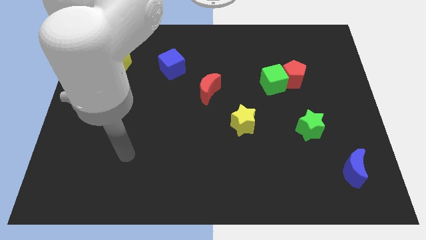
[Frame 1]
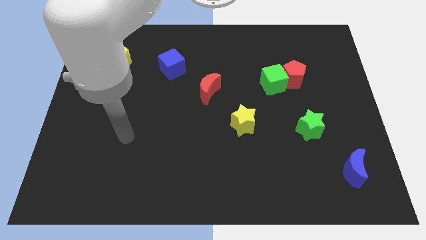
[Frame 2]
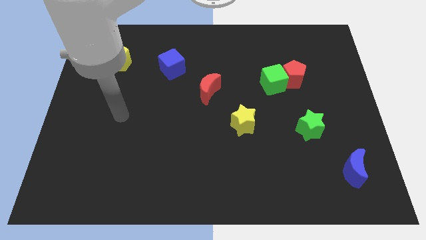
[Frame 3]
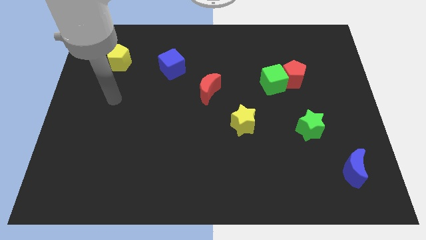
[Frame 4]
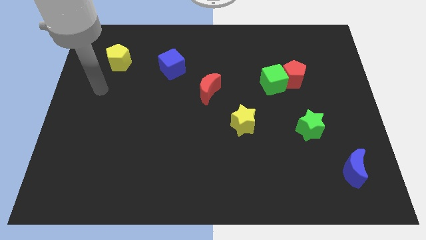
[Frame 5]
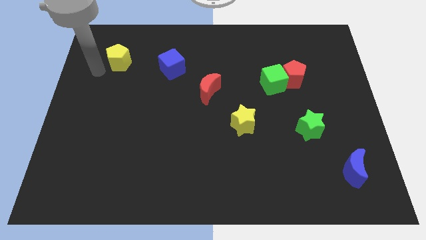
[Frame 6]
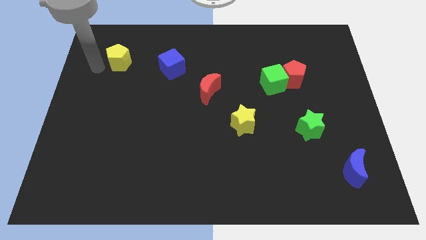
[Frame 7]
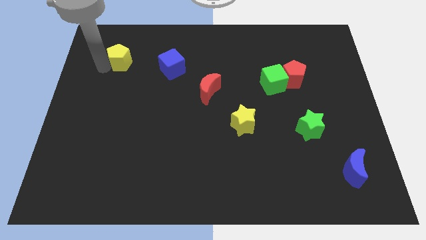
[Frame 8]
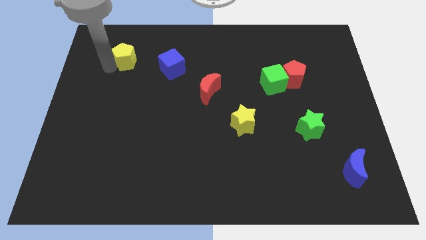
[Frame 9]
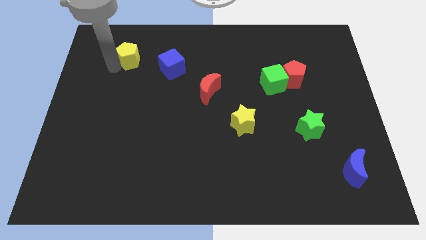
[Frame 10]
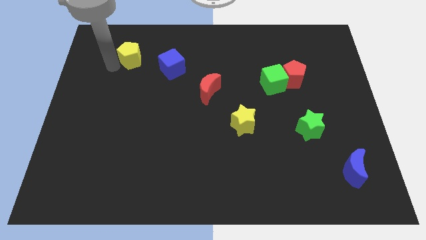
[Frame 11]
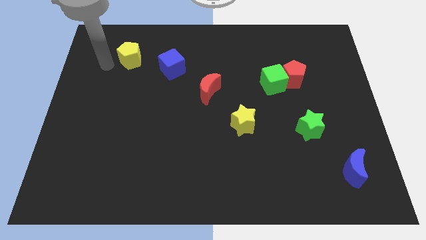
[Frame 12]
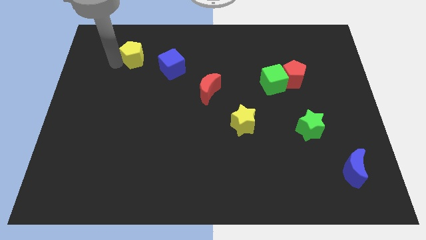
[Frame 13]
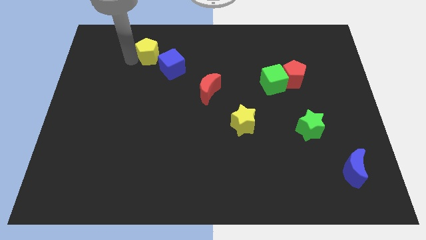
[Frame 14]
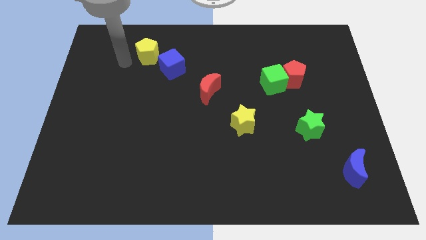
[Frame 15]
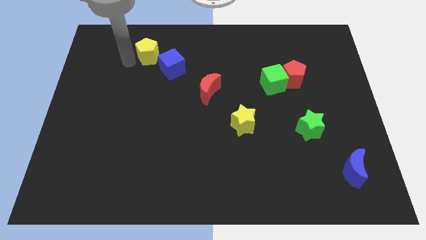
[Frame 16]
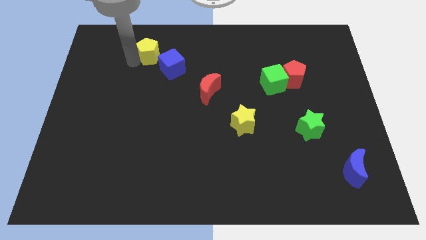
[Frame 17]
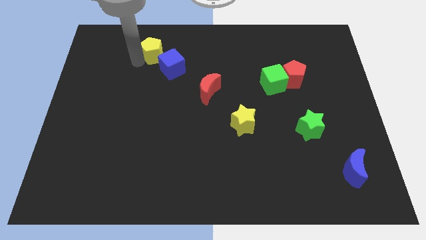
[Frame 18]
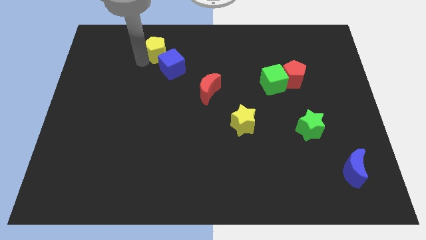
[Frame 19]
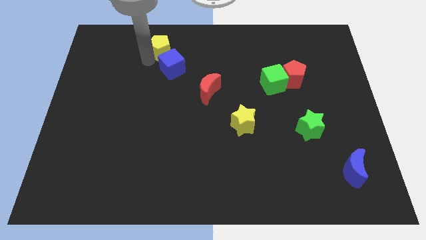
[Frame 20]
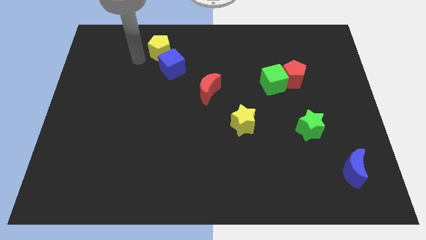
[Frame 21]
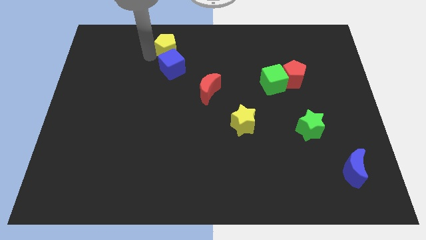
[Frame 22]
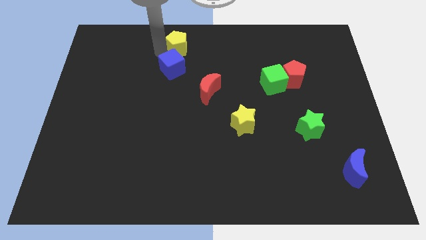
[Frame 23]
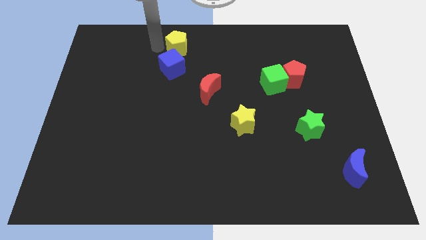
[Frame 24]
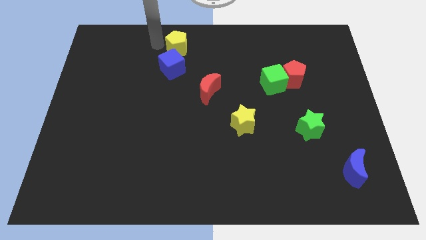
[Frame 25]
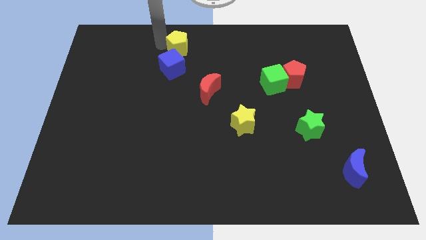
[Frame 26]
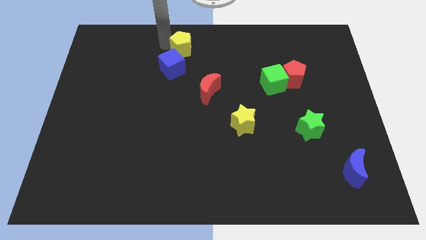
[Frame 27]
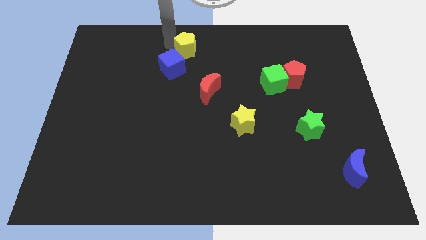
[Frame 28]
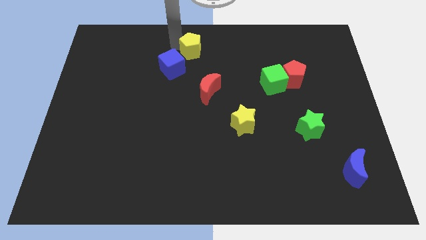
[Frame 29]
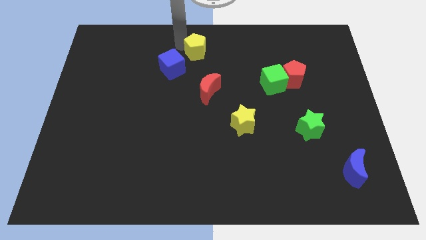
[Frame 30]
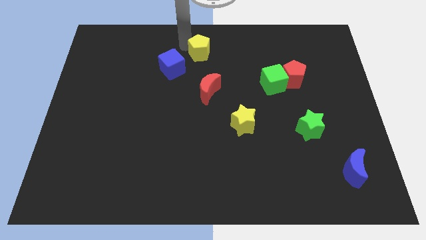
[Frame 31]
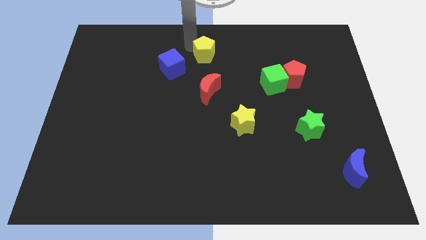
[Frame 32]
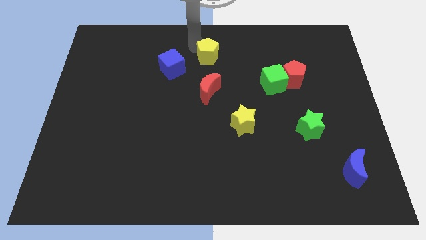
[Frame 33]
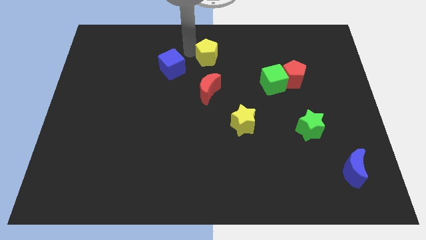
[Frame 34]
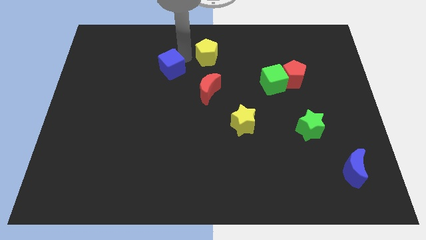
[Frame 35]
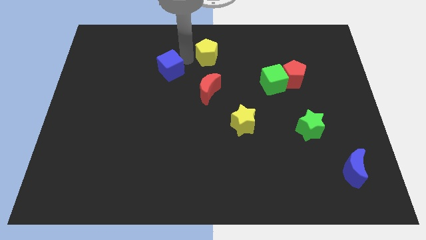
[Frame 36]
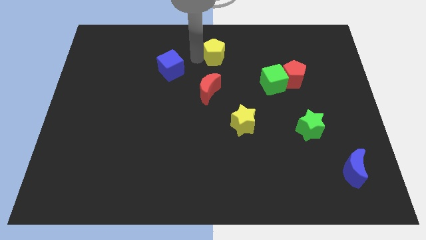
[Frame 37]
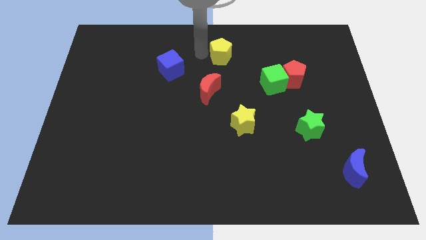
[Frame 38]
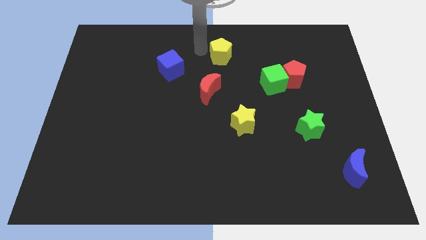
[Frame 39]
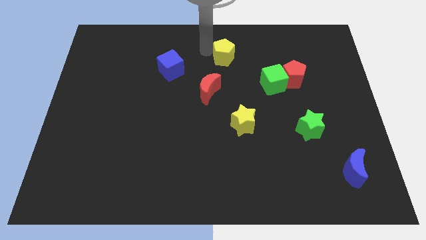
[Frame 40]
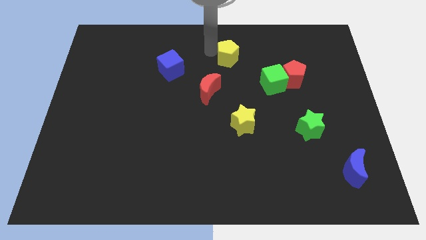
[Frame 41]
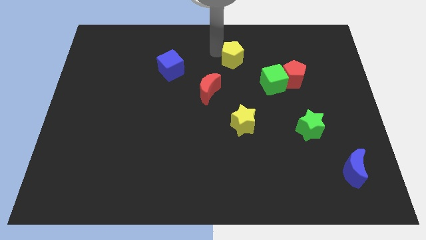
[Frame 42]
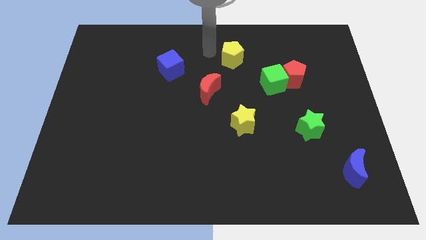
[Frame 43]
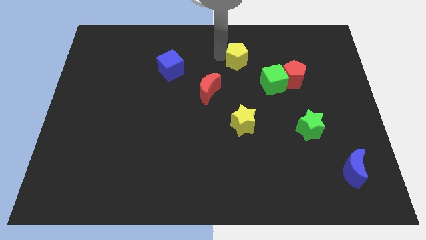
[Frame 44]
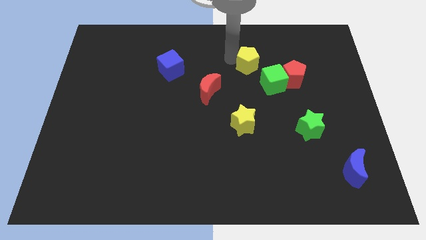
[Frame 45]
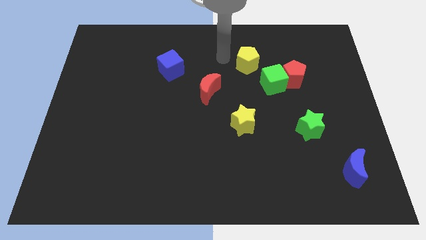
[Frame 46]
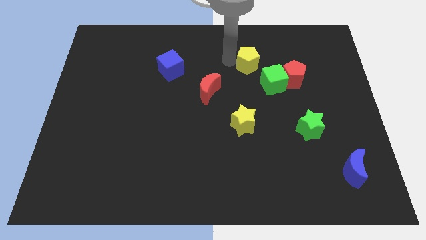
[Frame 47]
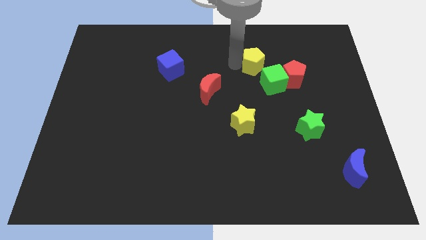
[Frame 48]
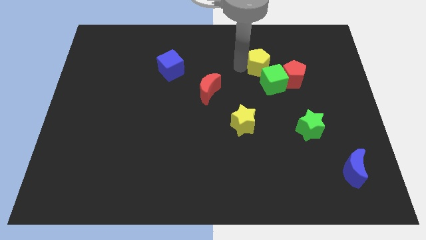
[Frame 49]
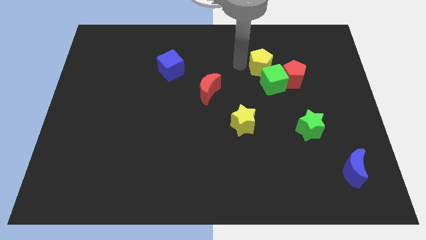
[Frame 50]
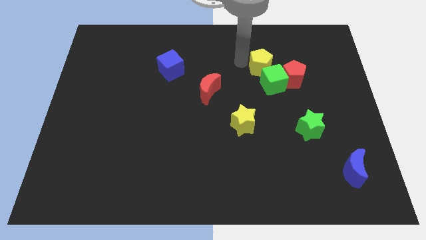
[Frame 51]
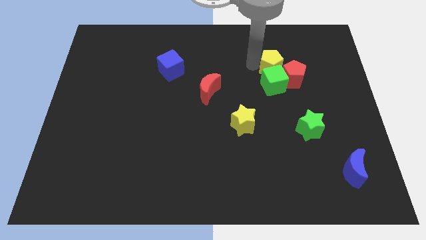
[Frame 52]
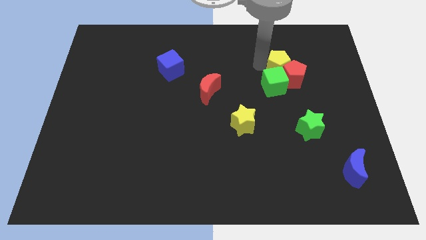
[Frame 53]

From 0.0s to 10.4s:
put the yellow pentagon towards the red pentagon

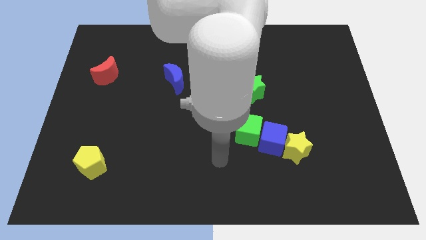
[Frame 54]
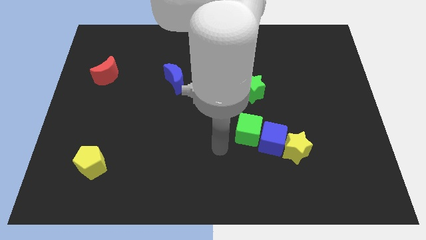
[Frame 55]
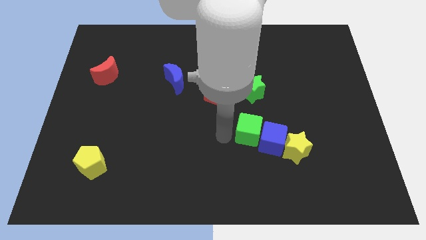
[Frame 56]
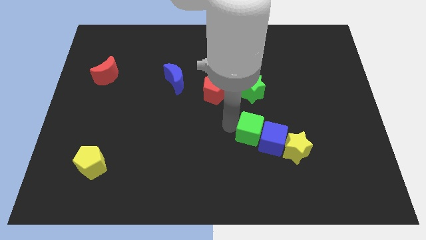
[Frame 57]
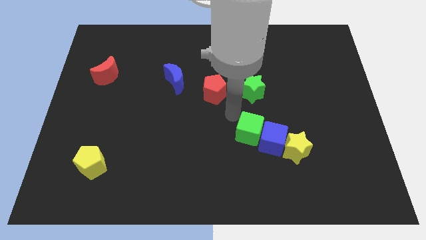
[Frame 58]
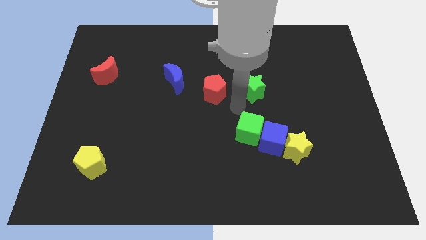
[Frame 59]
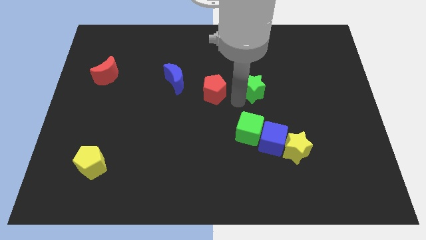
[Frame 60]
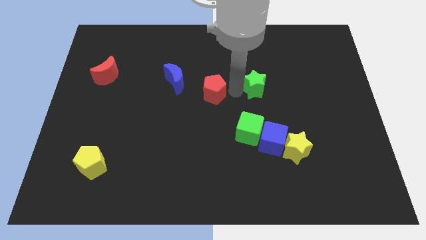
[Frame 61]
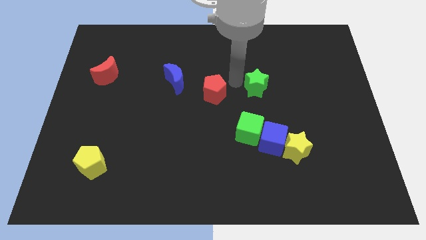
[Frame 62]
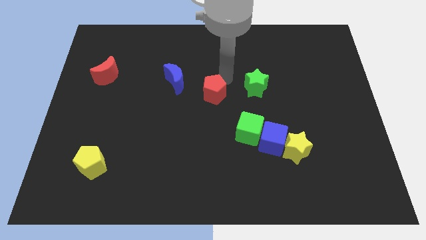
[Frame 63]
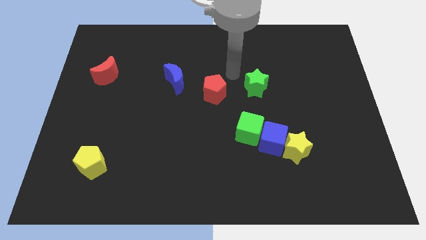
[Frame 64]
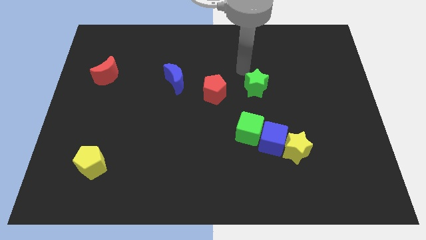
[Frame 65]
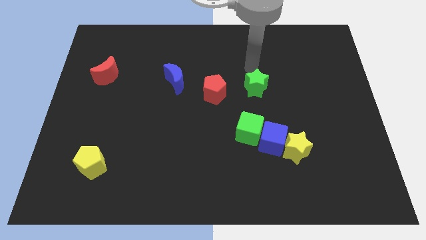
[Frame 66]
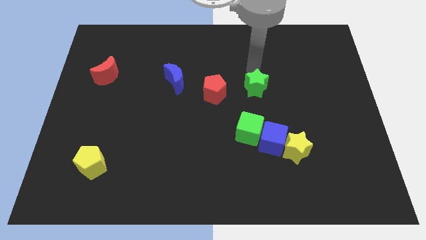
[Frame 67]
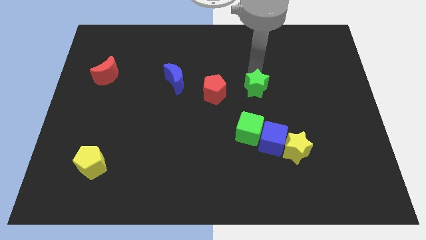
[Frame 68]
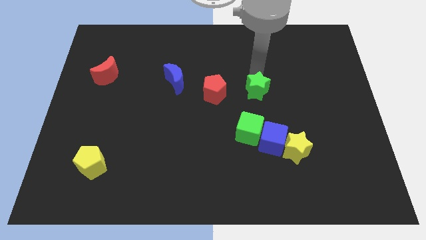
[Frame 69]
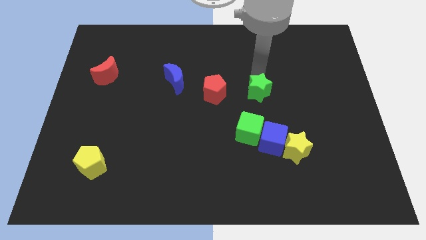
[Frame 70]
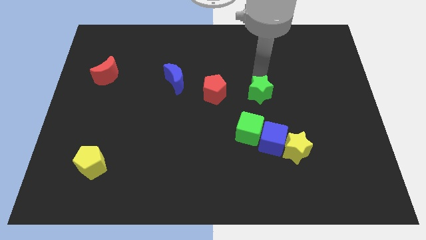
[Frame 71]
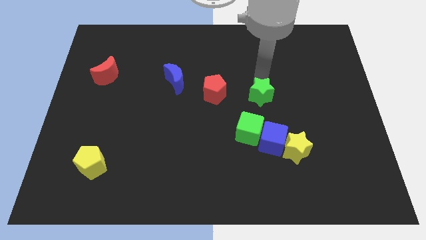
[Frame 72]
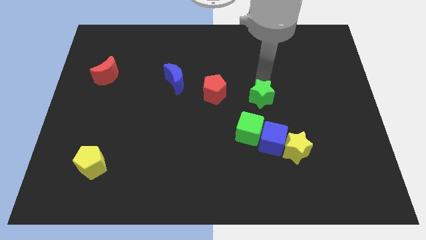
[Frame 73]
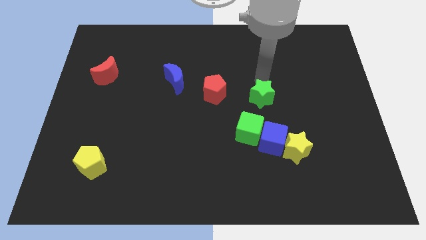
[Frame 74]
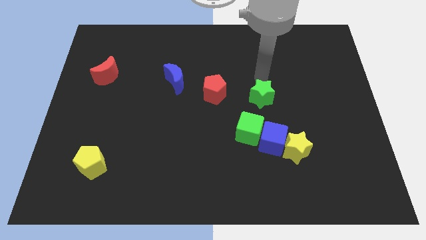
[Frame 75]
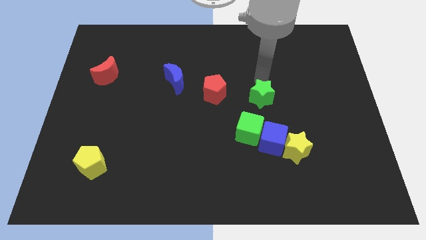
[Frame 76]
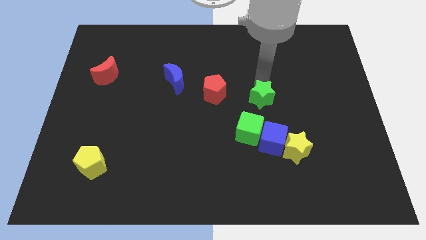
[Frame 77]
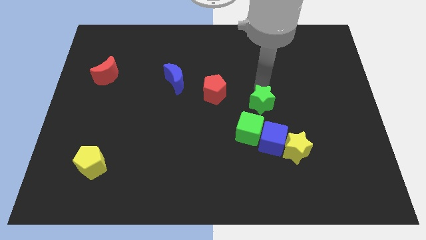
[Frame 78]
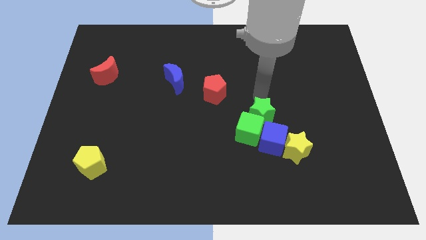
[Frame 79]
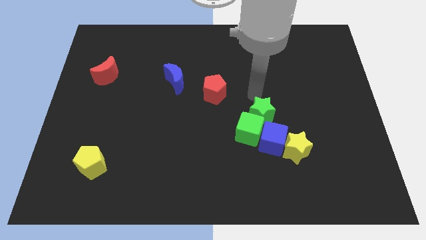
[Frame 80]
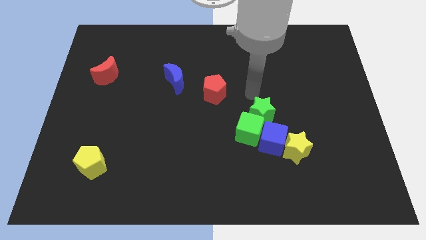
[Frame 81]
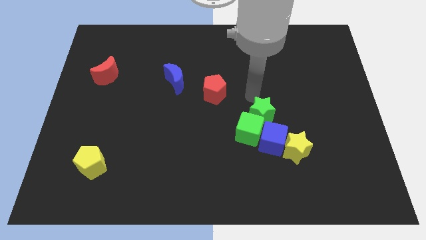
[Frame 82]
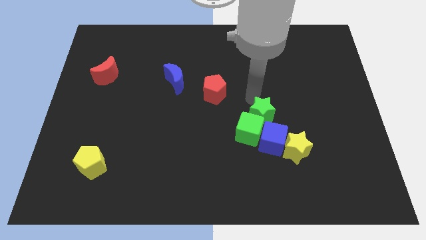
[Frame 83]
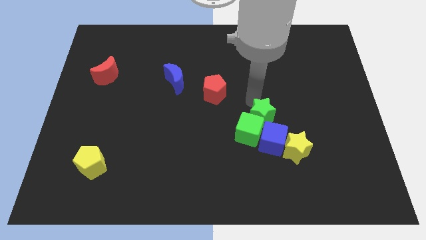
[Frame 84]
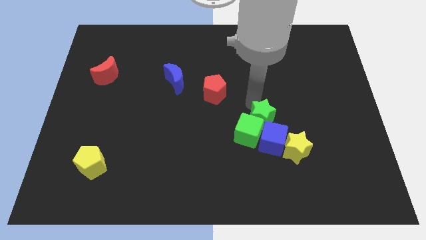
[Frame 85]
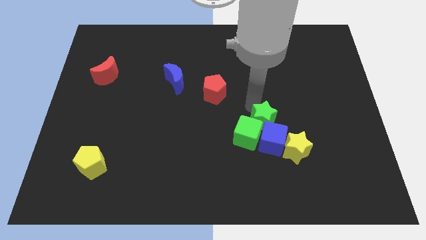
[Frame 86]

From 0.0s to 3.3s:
push the green star close to the blue cube
